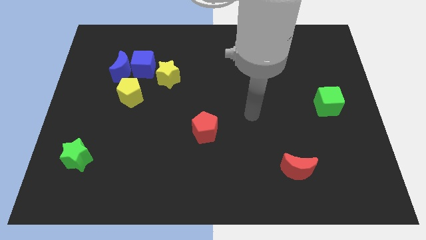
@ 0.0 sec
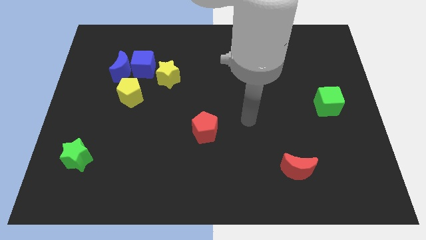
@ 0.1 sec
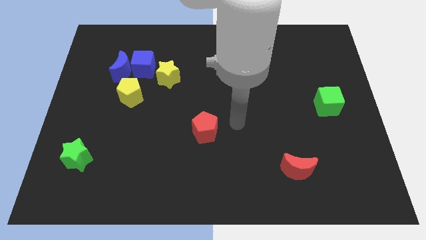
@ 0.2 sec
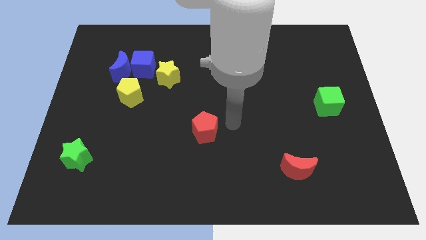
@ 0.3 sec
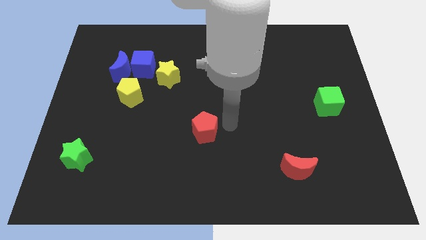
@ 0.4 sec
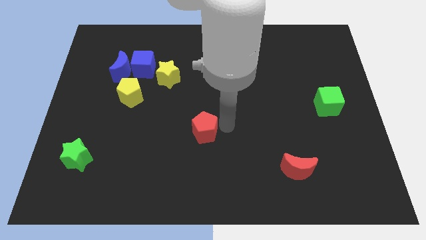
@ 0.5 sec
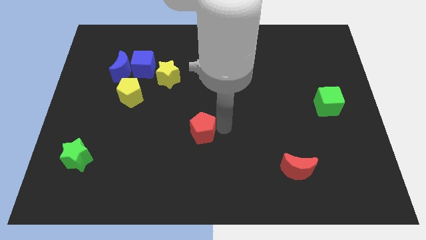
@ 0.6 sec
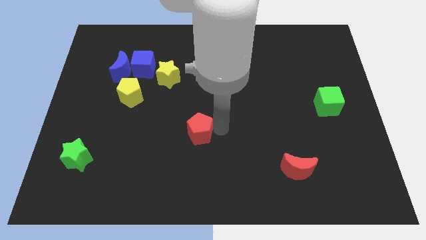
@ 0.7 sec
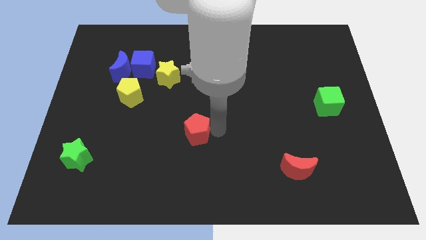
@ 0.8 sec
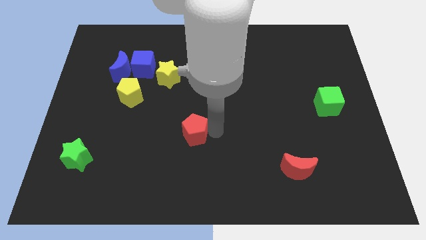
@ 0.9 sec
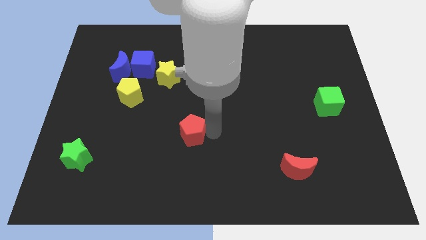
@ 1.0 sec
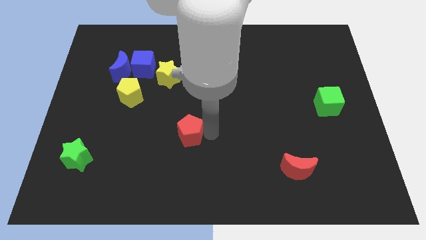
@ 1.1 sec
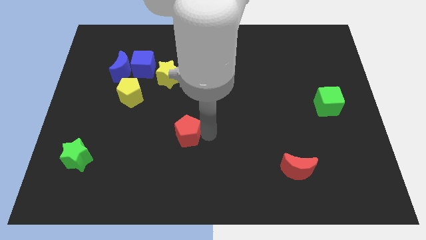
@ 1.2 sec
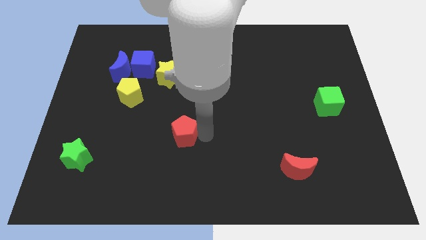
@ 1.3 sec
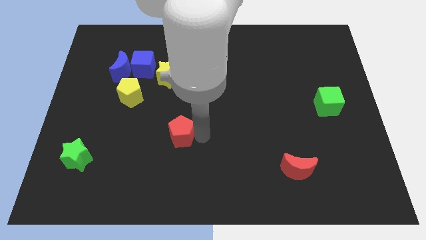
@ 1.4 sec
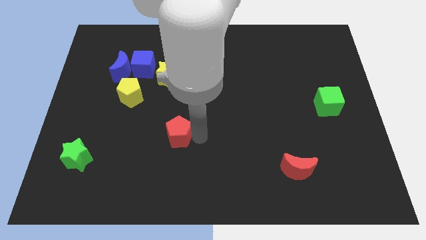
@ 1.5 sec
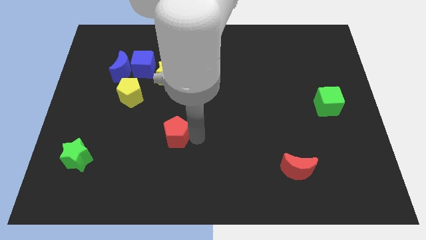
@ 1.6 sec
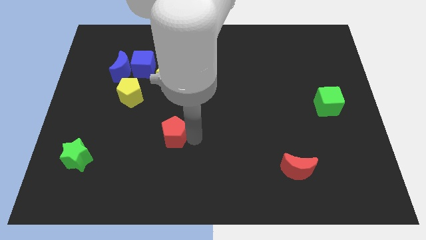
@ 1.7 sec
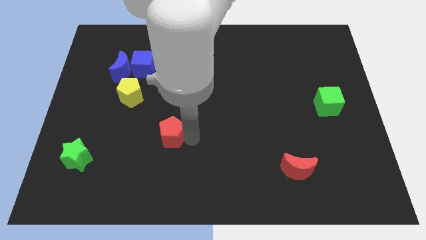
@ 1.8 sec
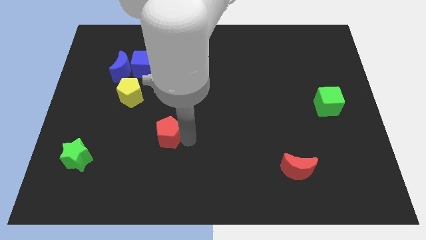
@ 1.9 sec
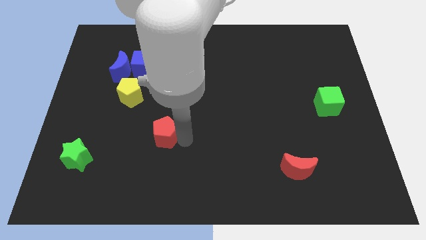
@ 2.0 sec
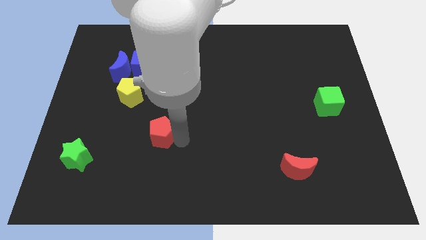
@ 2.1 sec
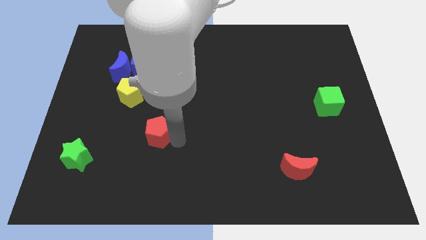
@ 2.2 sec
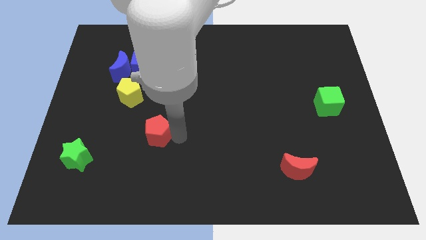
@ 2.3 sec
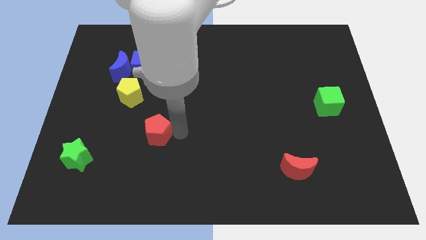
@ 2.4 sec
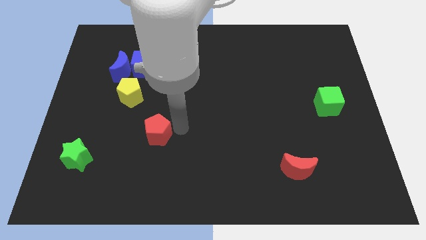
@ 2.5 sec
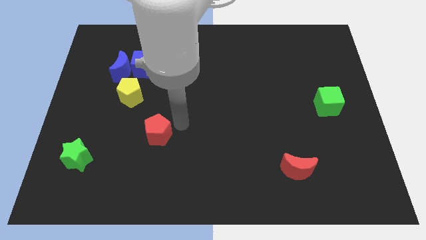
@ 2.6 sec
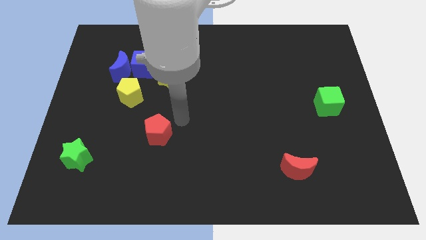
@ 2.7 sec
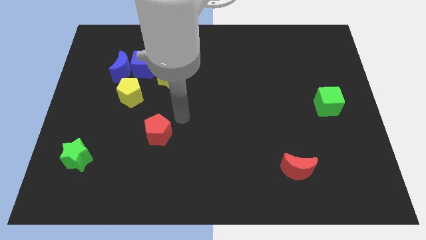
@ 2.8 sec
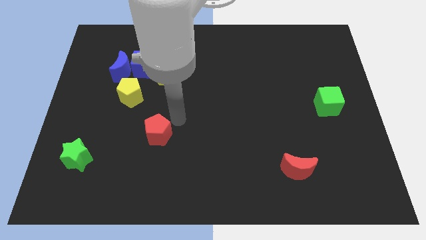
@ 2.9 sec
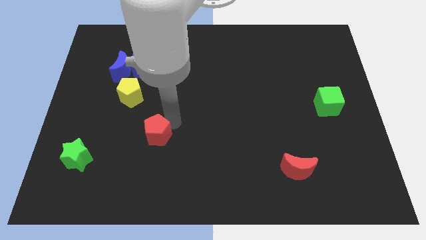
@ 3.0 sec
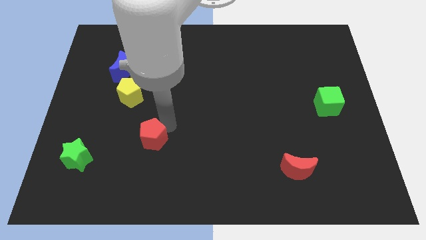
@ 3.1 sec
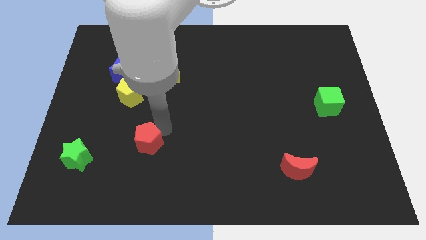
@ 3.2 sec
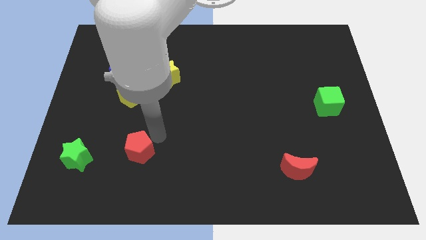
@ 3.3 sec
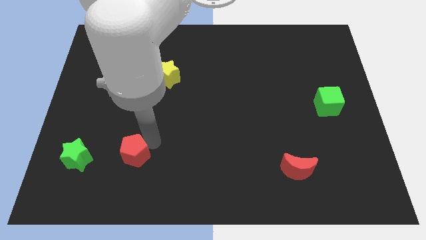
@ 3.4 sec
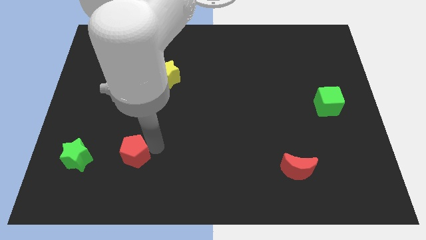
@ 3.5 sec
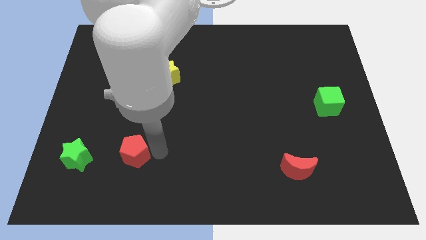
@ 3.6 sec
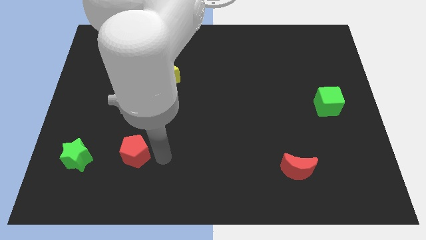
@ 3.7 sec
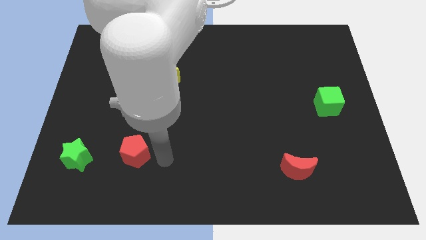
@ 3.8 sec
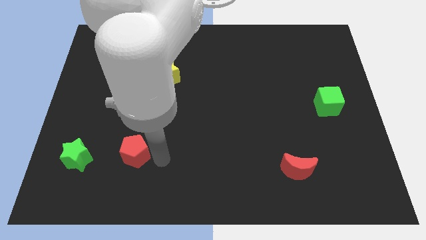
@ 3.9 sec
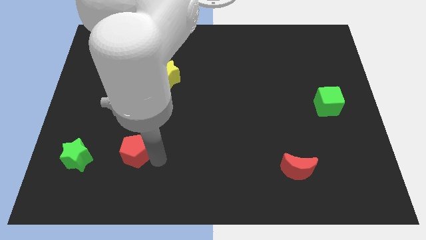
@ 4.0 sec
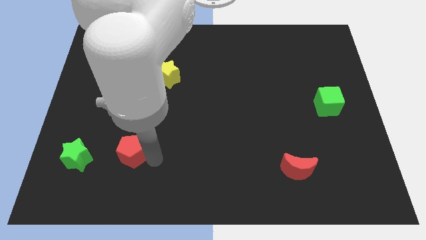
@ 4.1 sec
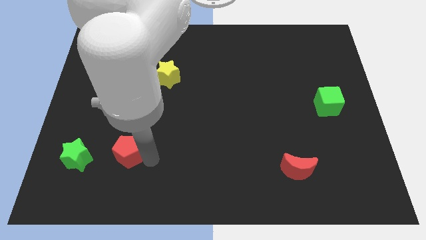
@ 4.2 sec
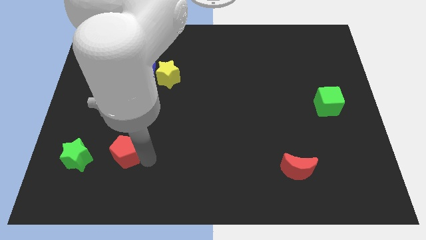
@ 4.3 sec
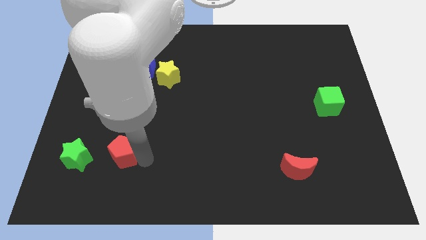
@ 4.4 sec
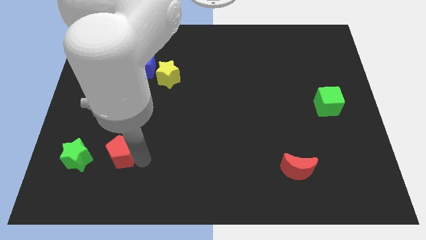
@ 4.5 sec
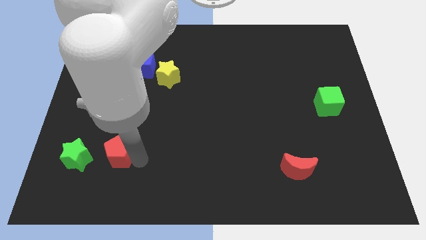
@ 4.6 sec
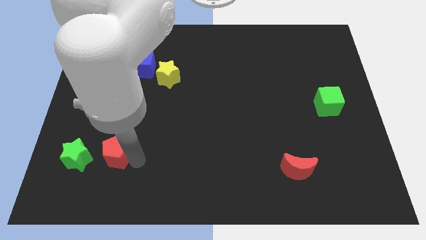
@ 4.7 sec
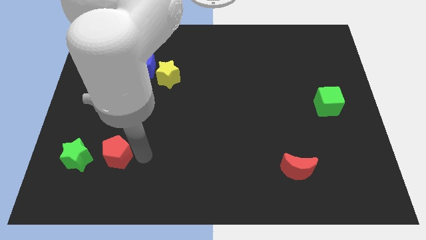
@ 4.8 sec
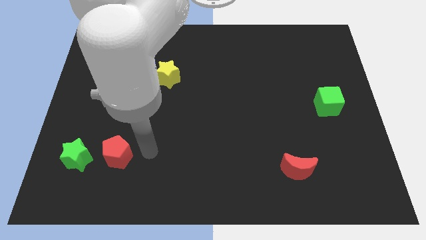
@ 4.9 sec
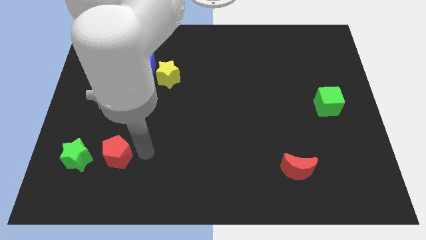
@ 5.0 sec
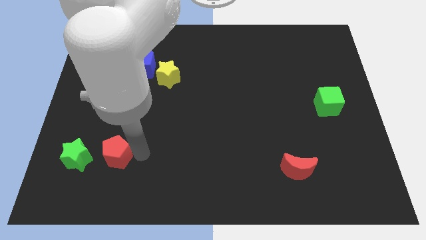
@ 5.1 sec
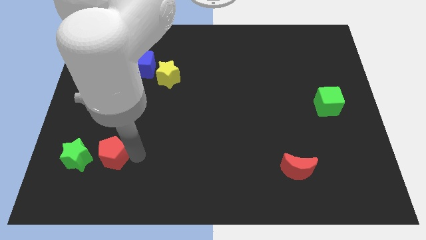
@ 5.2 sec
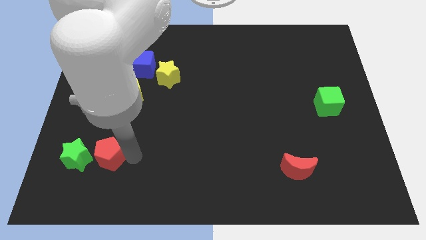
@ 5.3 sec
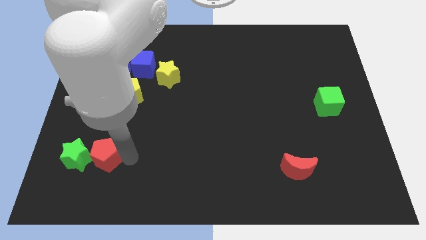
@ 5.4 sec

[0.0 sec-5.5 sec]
slide the red pentagon next to the green star

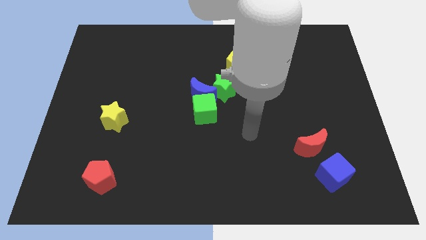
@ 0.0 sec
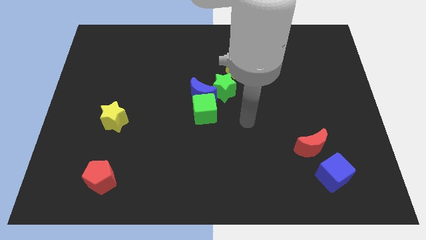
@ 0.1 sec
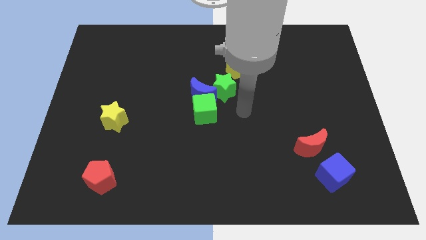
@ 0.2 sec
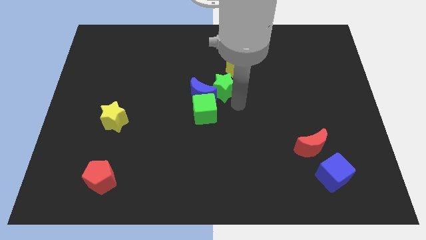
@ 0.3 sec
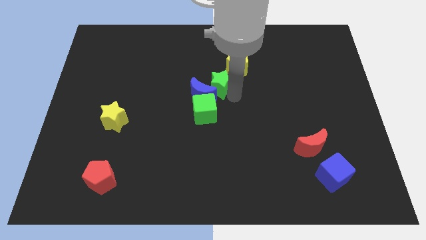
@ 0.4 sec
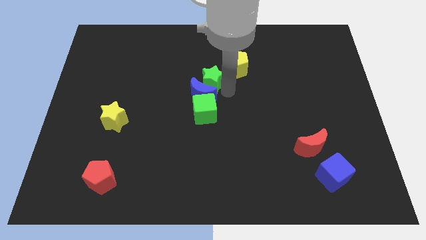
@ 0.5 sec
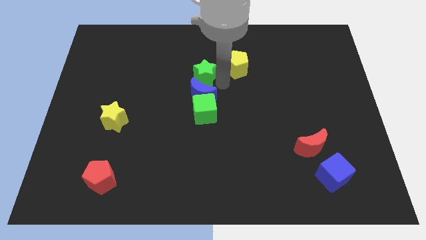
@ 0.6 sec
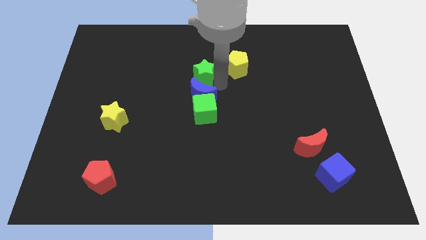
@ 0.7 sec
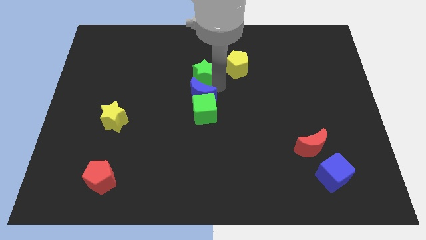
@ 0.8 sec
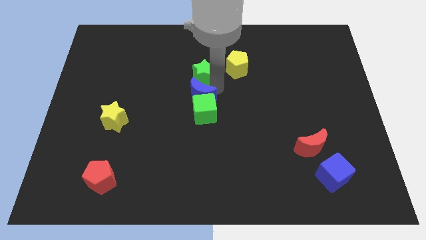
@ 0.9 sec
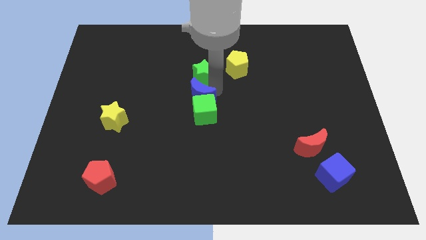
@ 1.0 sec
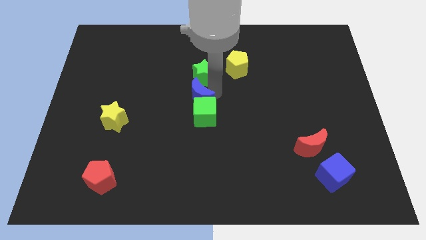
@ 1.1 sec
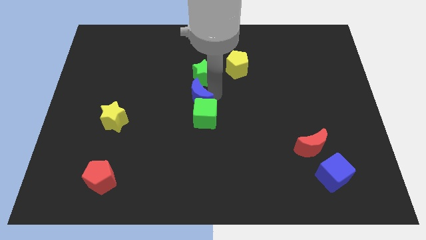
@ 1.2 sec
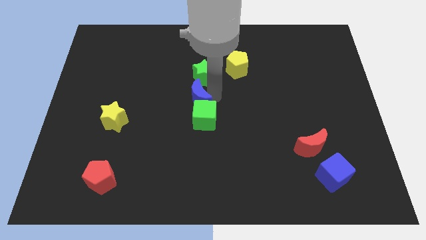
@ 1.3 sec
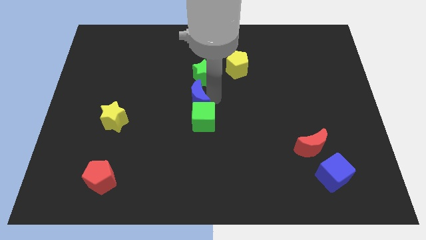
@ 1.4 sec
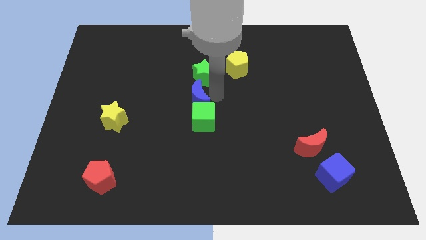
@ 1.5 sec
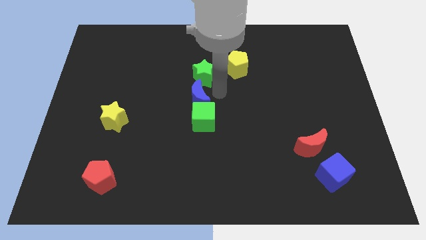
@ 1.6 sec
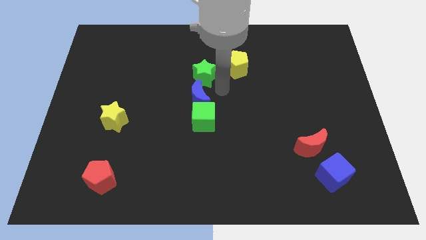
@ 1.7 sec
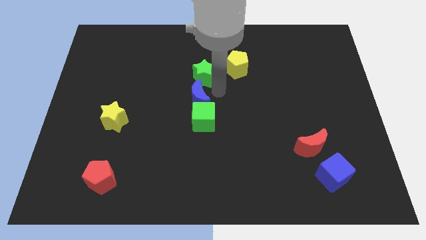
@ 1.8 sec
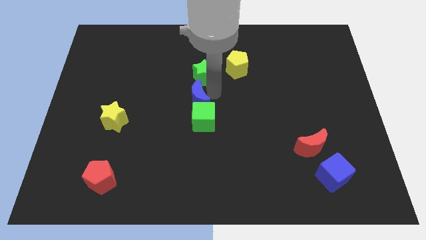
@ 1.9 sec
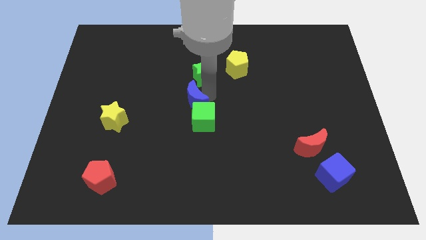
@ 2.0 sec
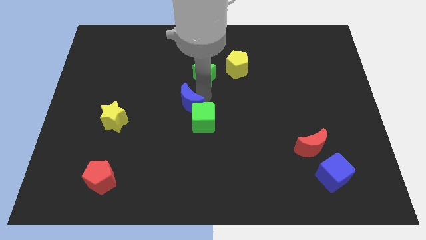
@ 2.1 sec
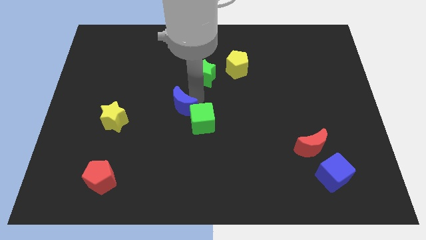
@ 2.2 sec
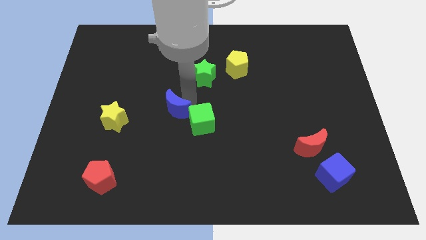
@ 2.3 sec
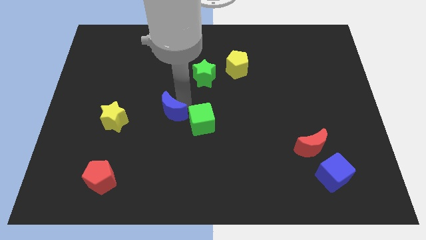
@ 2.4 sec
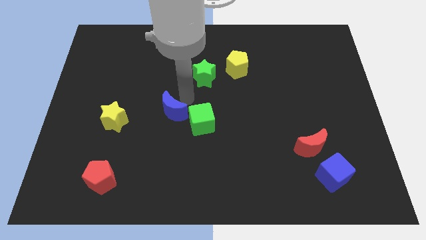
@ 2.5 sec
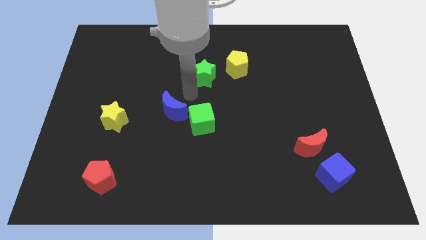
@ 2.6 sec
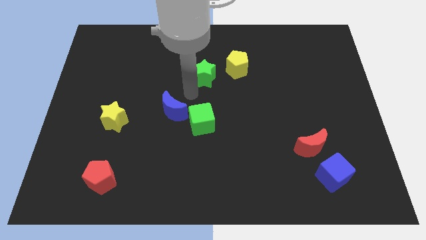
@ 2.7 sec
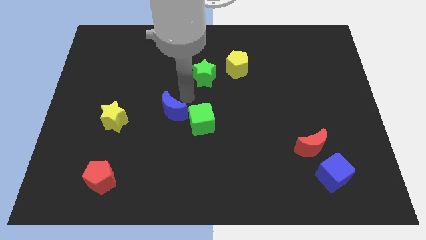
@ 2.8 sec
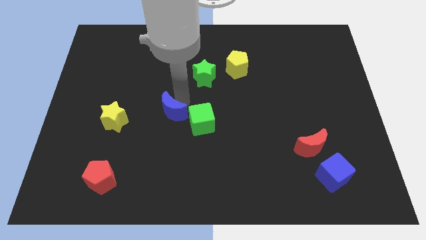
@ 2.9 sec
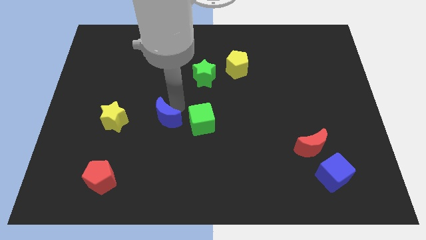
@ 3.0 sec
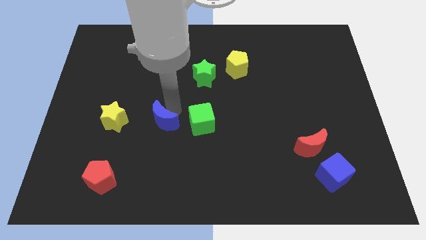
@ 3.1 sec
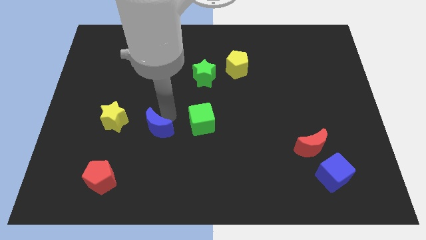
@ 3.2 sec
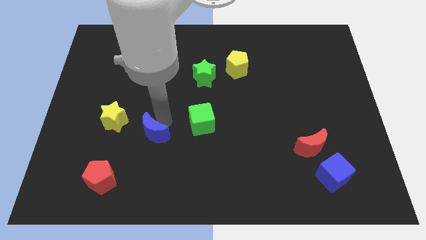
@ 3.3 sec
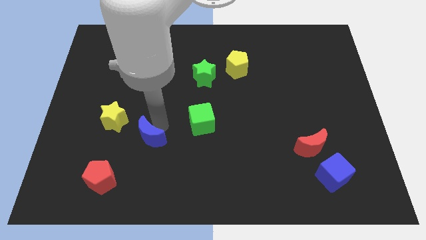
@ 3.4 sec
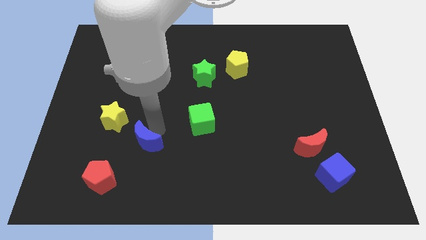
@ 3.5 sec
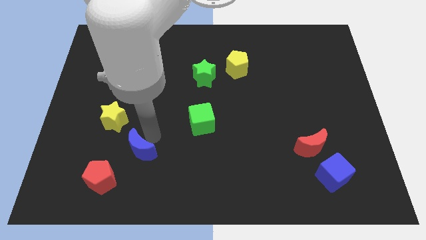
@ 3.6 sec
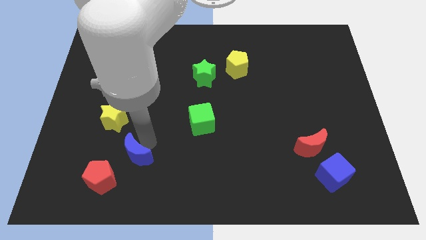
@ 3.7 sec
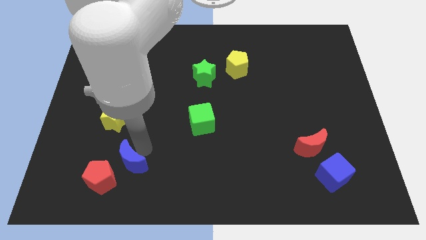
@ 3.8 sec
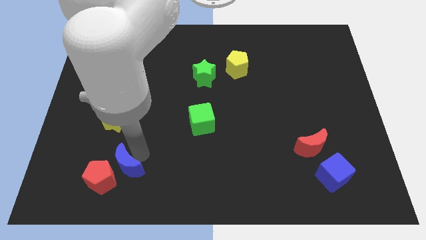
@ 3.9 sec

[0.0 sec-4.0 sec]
move the blue moon to the red pentagon
